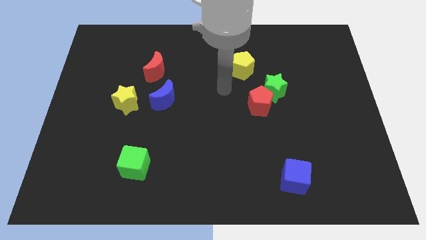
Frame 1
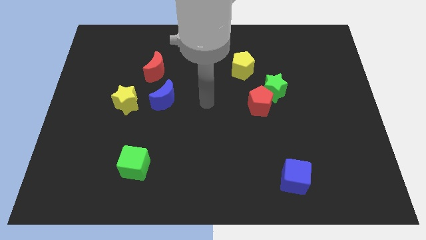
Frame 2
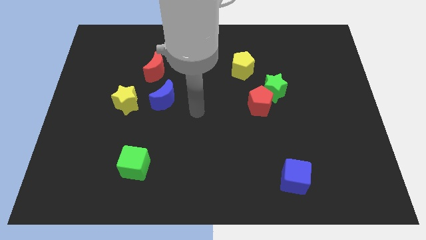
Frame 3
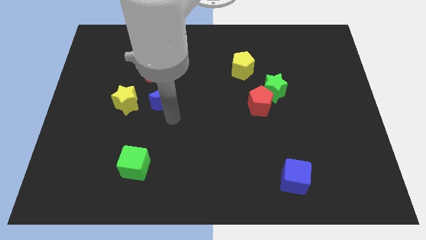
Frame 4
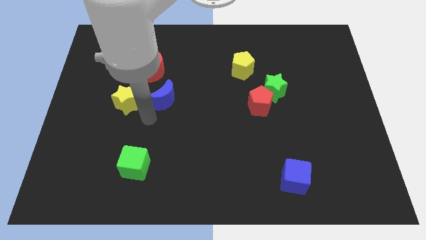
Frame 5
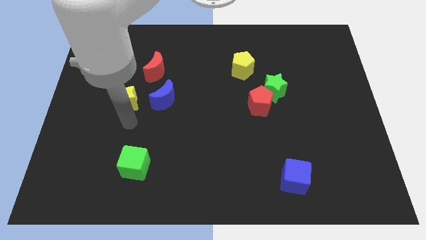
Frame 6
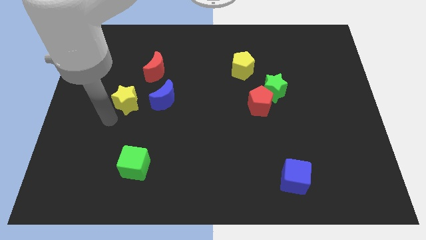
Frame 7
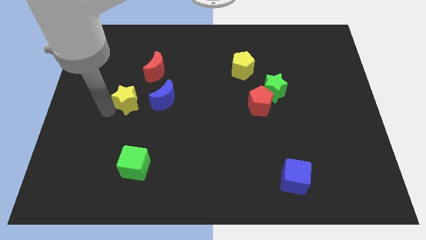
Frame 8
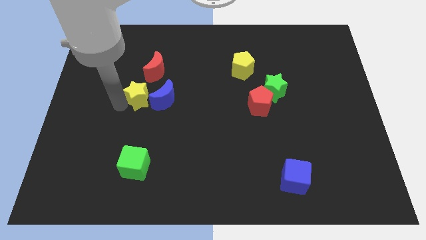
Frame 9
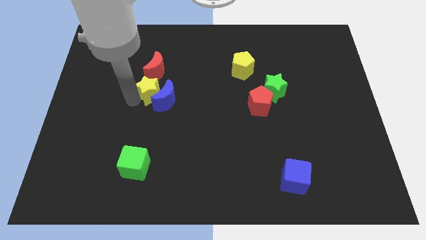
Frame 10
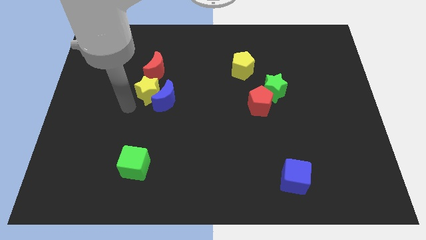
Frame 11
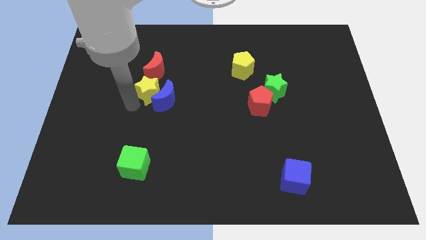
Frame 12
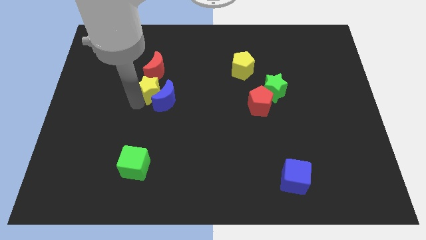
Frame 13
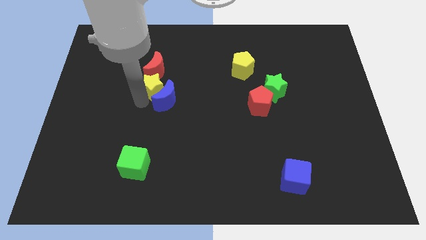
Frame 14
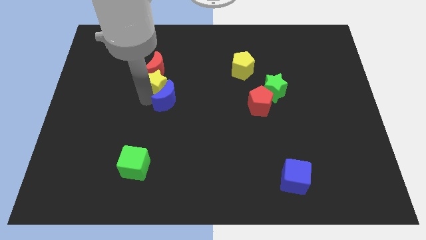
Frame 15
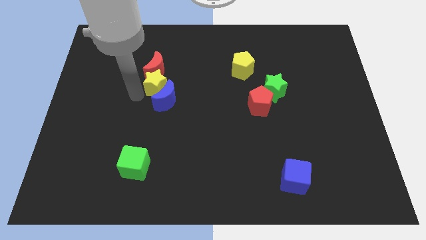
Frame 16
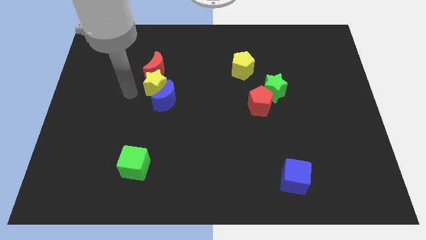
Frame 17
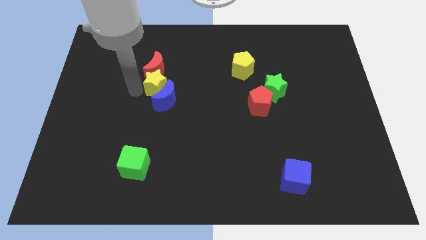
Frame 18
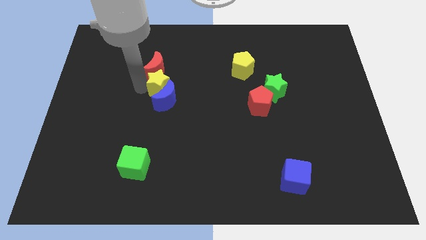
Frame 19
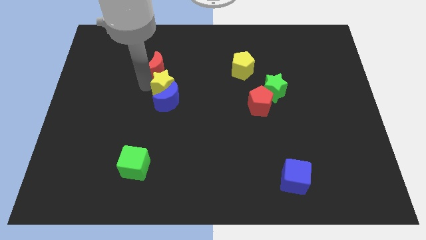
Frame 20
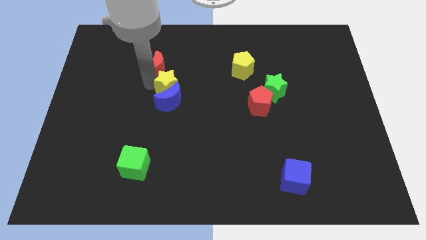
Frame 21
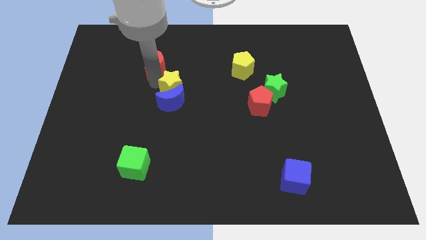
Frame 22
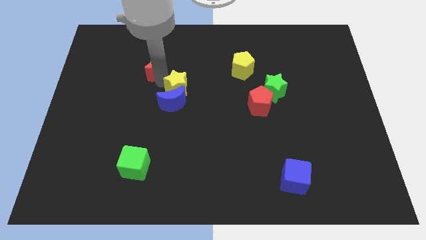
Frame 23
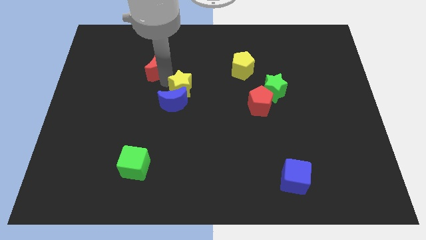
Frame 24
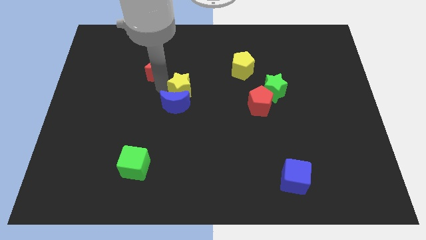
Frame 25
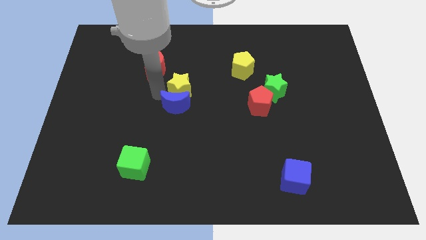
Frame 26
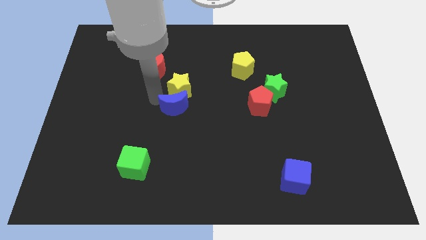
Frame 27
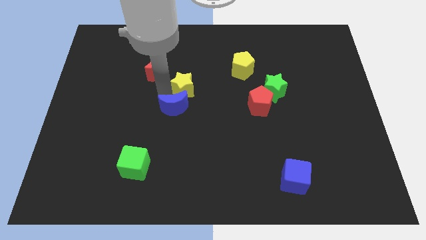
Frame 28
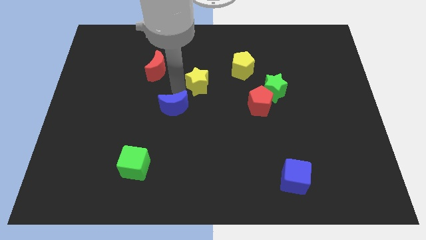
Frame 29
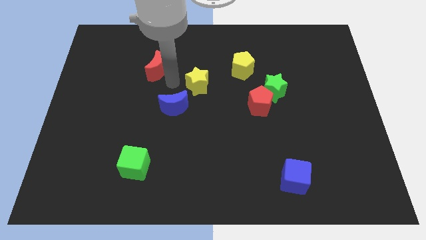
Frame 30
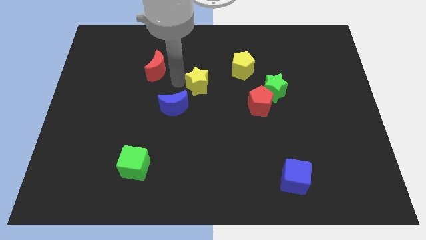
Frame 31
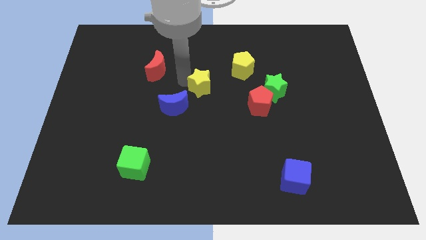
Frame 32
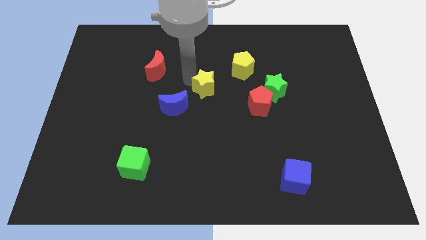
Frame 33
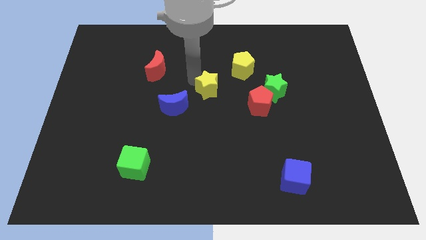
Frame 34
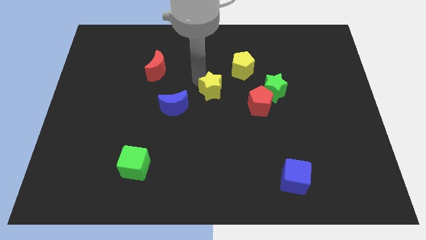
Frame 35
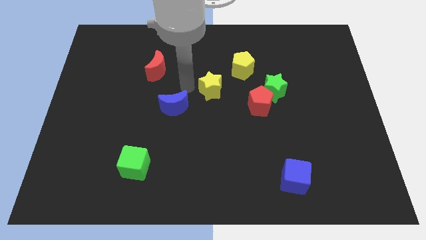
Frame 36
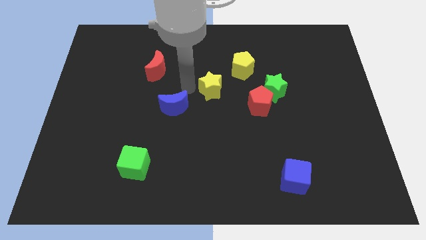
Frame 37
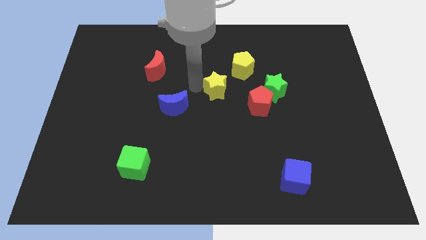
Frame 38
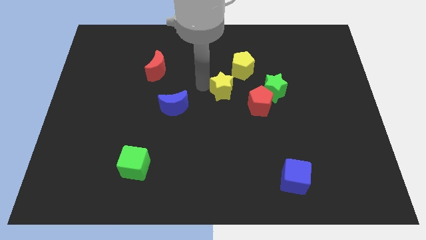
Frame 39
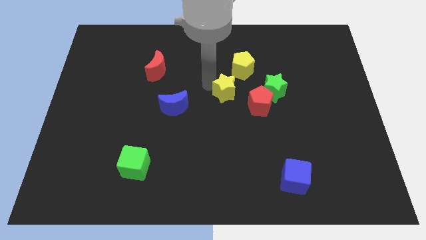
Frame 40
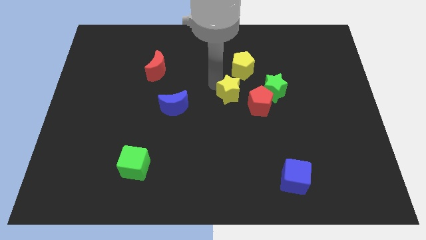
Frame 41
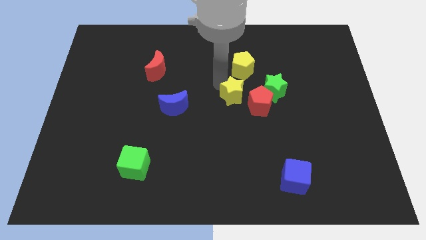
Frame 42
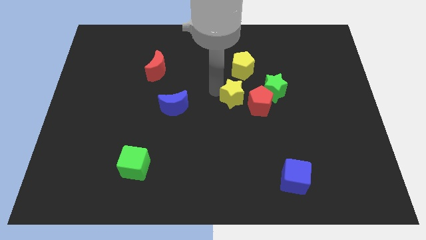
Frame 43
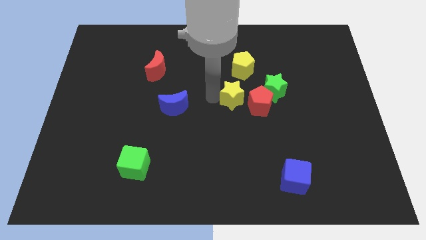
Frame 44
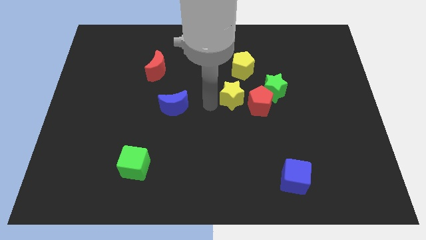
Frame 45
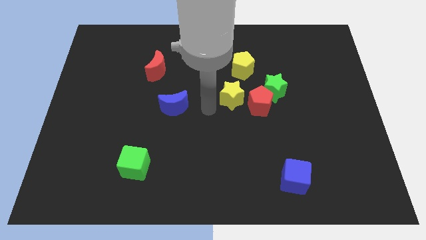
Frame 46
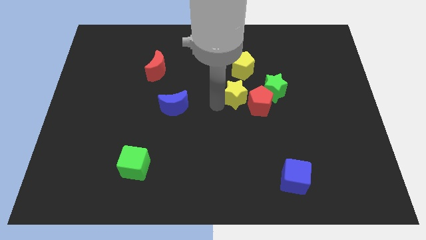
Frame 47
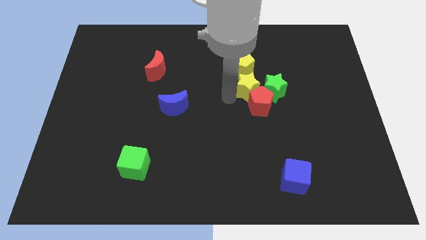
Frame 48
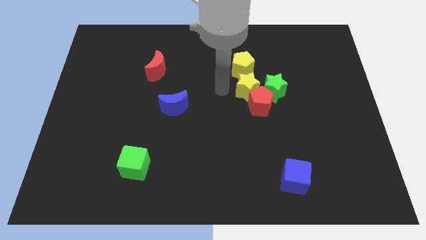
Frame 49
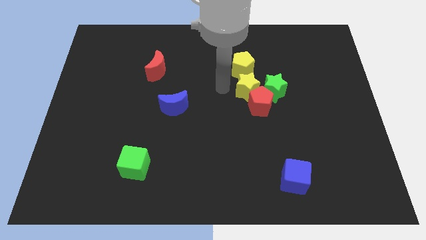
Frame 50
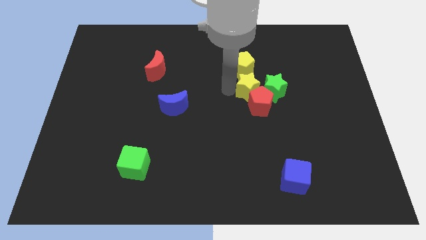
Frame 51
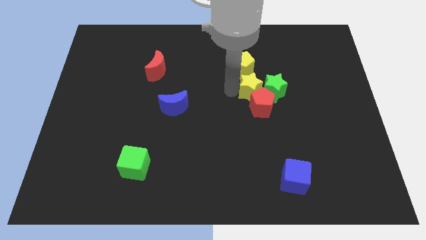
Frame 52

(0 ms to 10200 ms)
push the yellow star to the green star

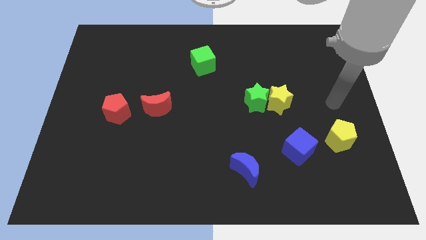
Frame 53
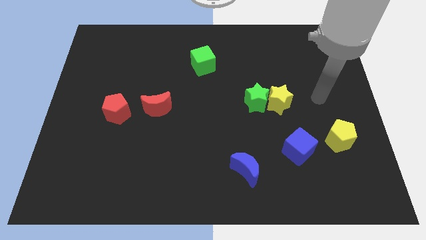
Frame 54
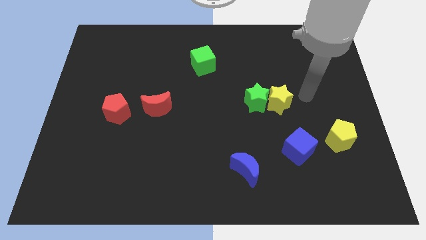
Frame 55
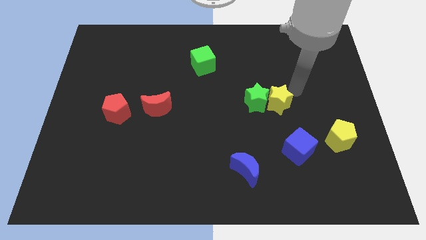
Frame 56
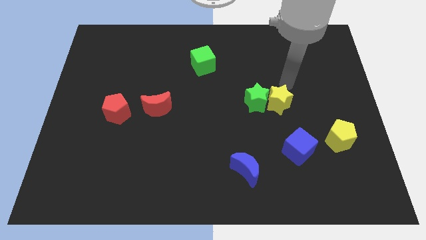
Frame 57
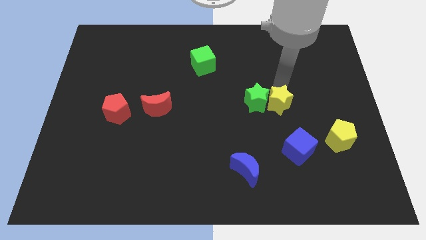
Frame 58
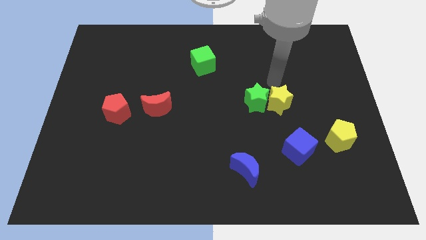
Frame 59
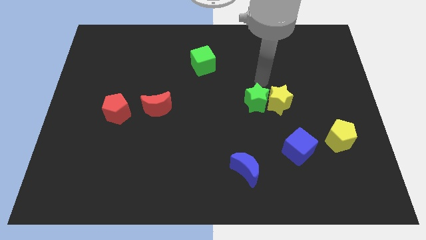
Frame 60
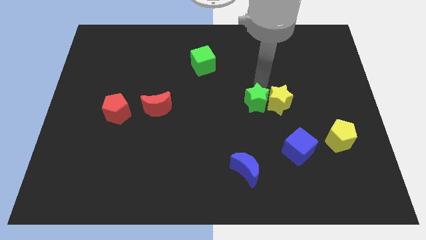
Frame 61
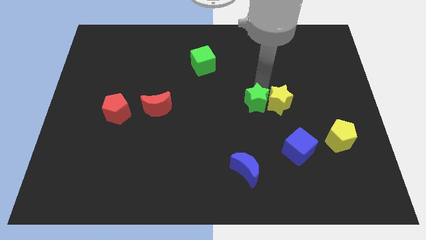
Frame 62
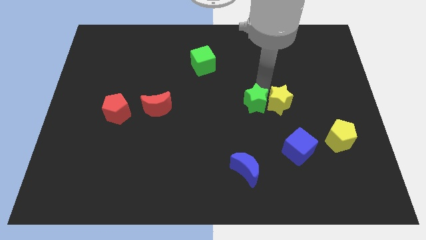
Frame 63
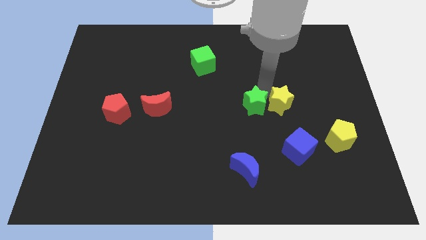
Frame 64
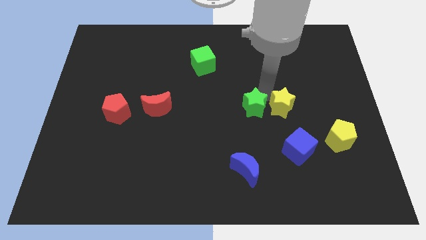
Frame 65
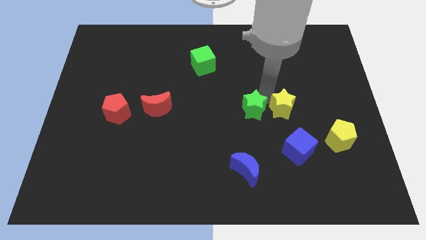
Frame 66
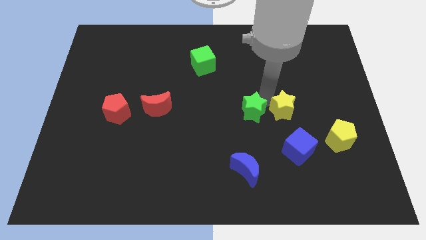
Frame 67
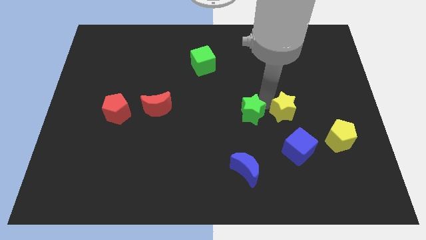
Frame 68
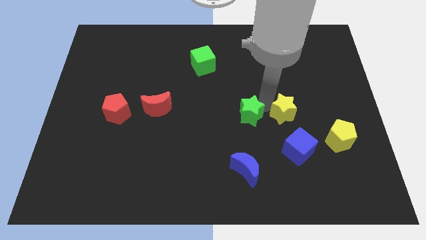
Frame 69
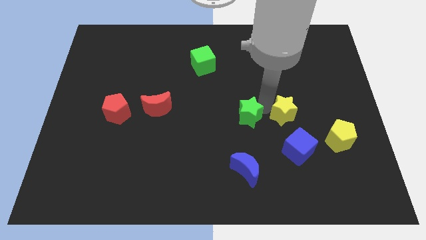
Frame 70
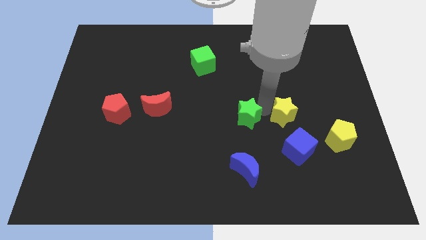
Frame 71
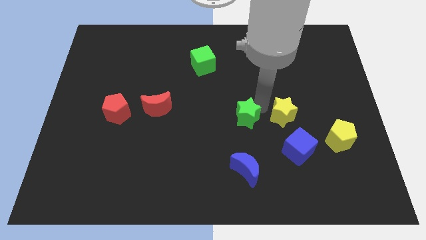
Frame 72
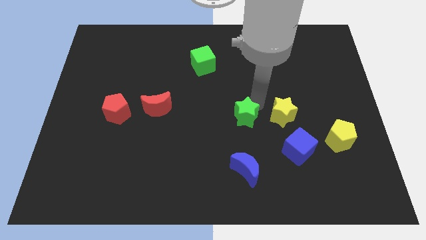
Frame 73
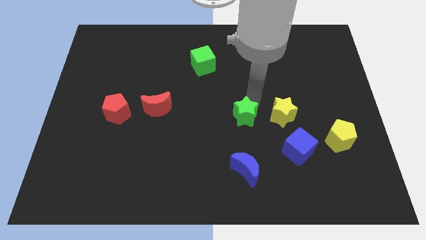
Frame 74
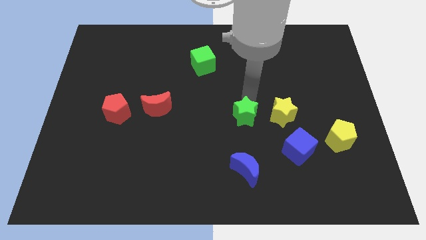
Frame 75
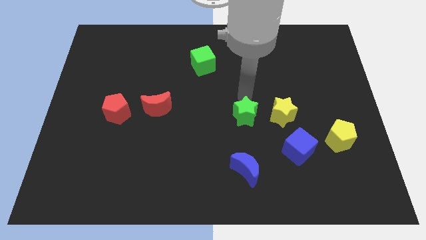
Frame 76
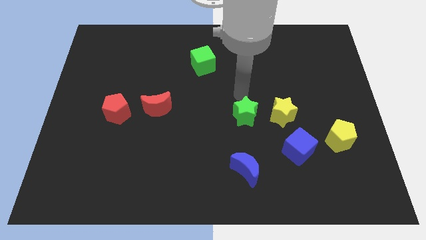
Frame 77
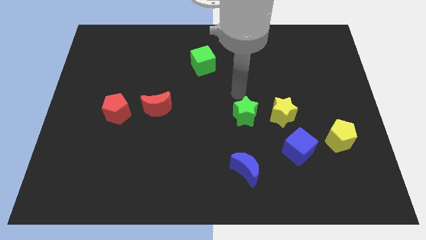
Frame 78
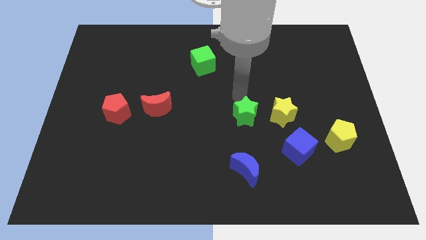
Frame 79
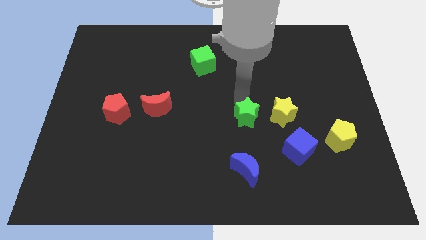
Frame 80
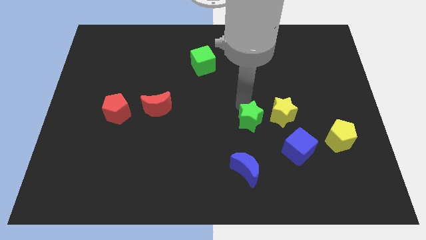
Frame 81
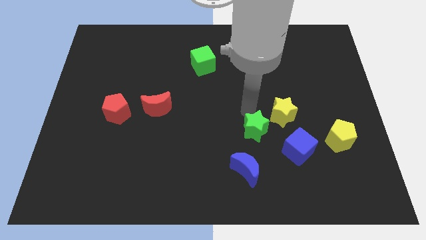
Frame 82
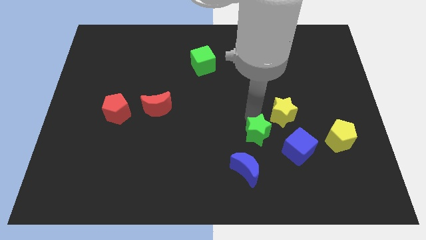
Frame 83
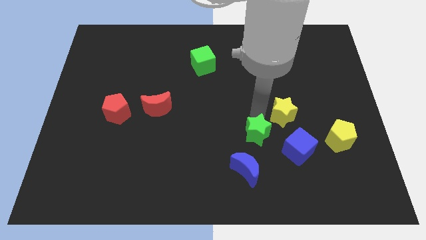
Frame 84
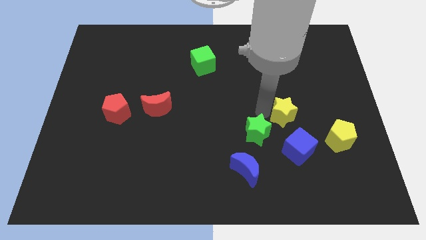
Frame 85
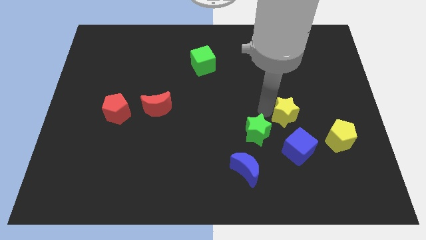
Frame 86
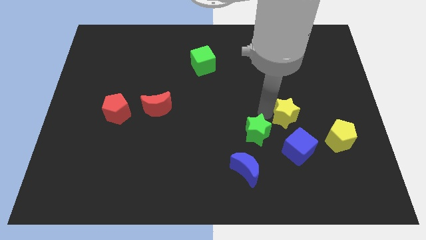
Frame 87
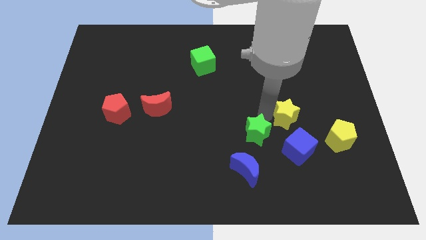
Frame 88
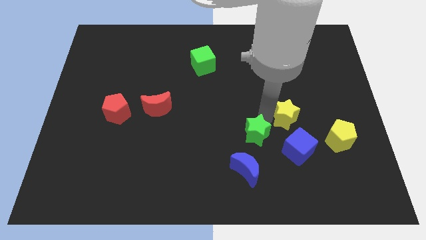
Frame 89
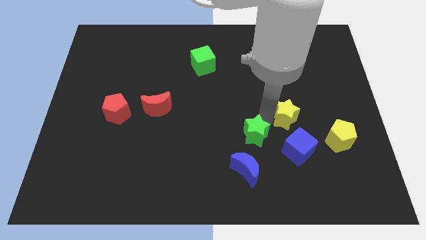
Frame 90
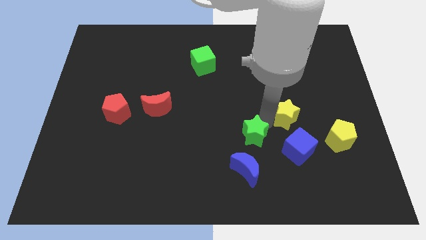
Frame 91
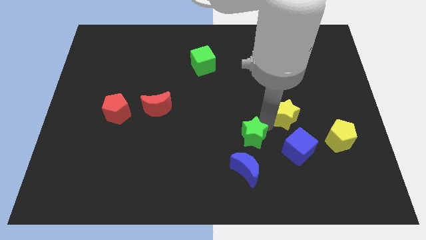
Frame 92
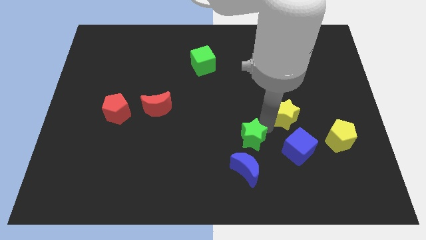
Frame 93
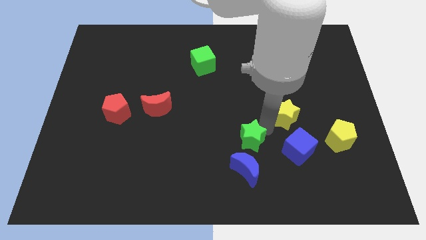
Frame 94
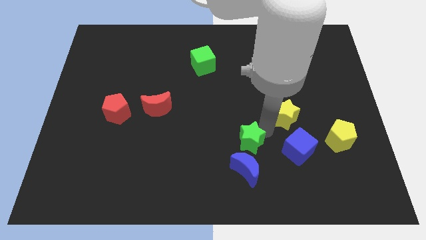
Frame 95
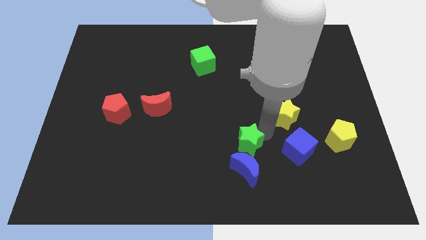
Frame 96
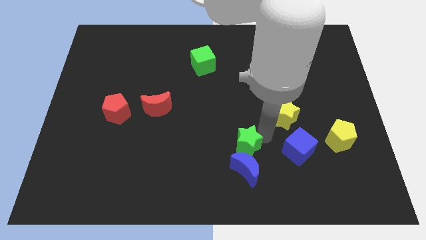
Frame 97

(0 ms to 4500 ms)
put the green star towards the blue moon
